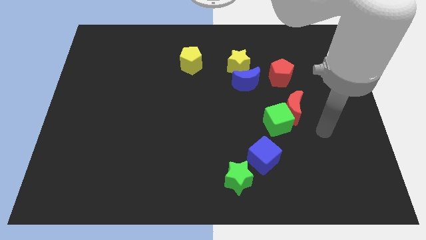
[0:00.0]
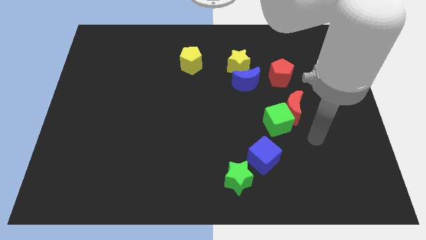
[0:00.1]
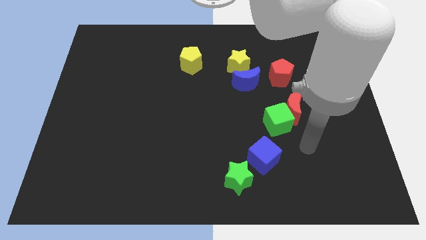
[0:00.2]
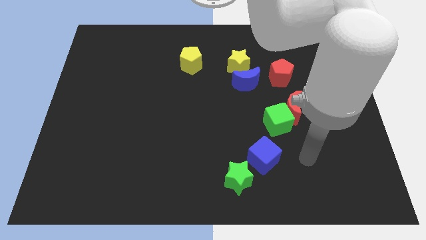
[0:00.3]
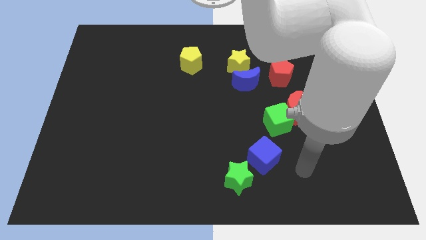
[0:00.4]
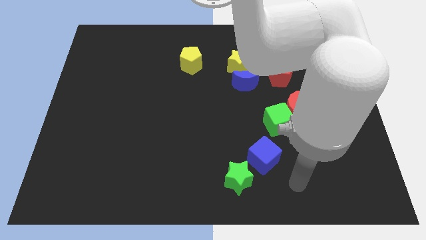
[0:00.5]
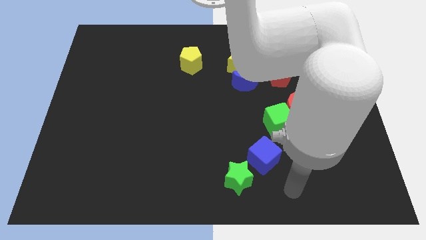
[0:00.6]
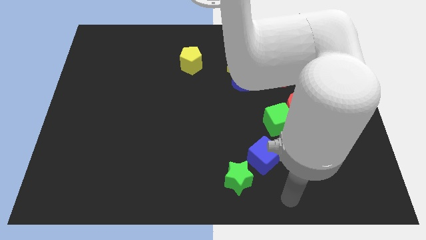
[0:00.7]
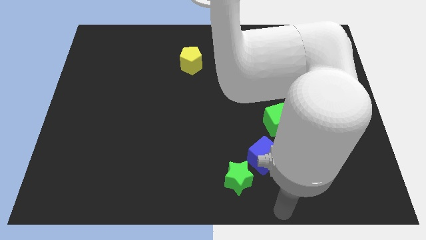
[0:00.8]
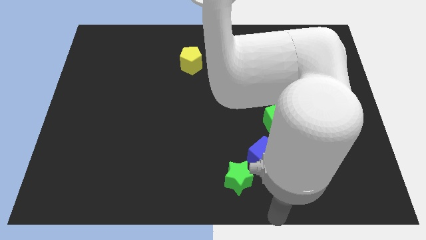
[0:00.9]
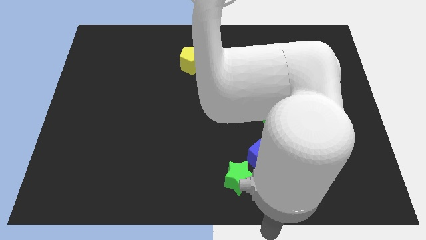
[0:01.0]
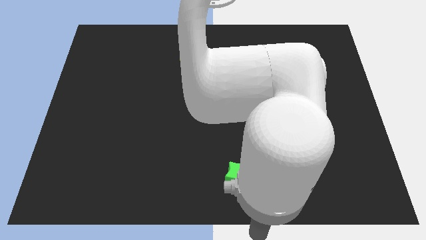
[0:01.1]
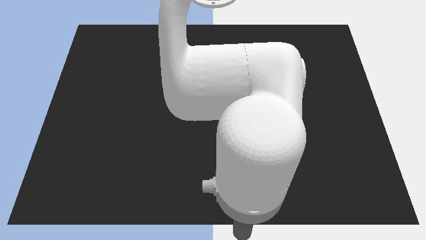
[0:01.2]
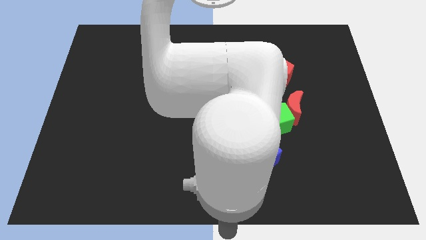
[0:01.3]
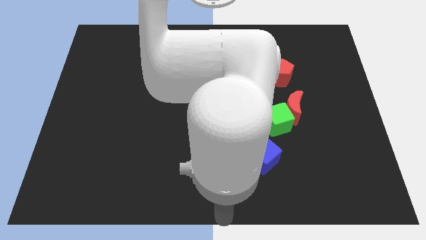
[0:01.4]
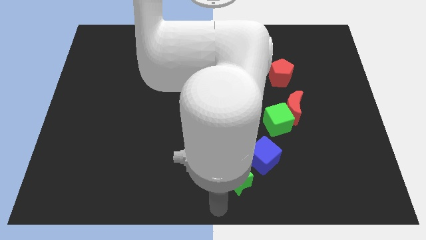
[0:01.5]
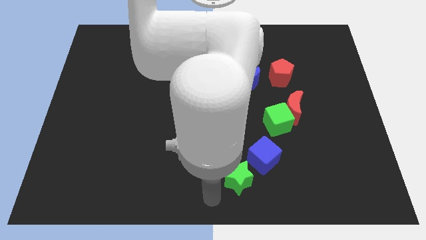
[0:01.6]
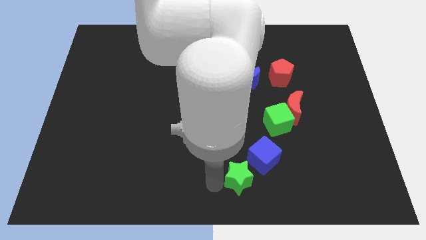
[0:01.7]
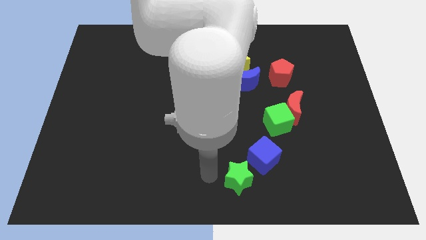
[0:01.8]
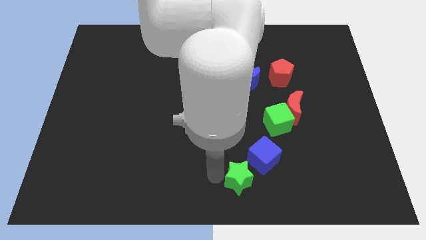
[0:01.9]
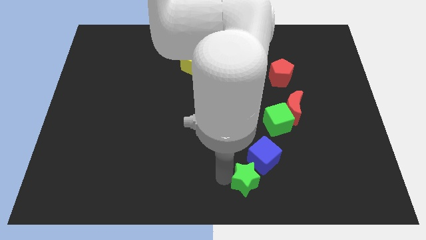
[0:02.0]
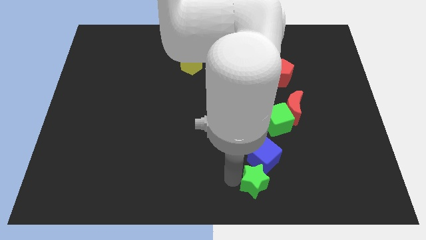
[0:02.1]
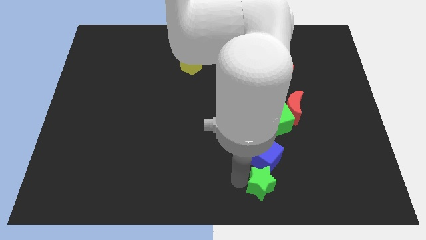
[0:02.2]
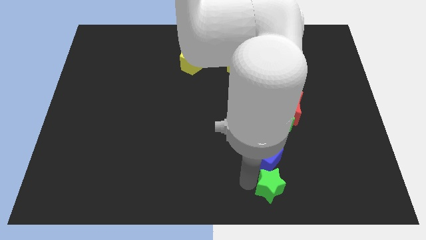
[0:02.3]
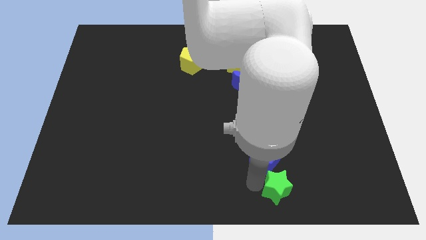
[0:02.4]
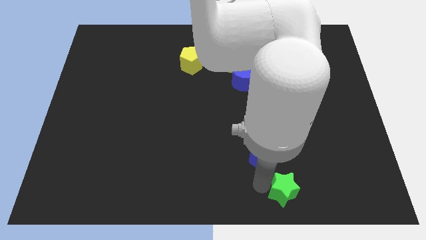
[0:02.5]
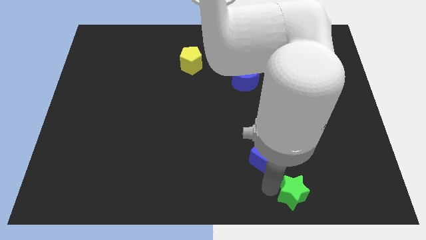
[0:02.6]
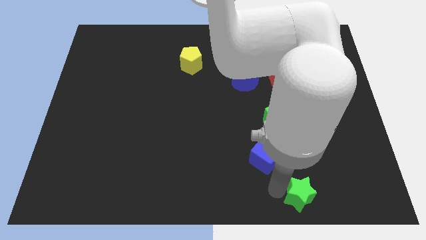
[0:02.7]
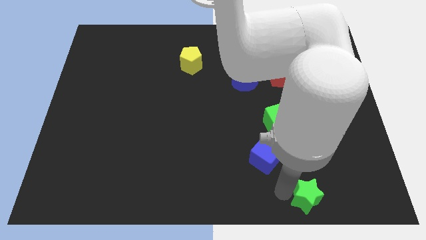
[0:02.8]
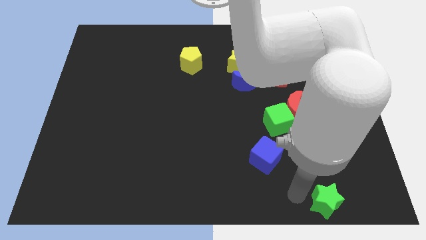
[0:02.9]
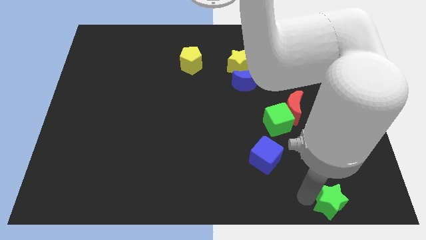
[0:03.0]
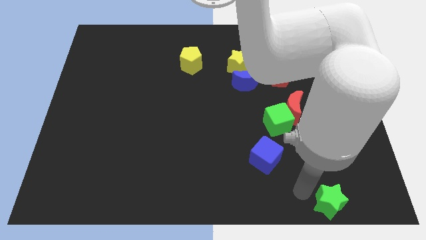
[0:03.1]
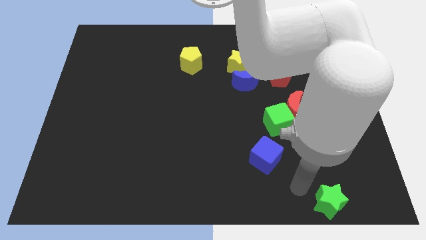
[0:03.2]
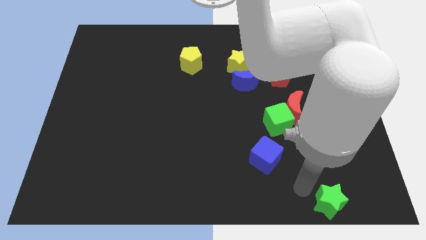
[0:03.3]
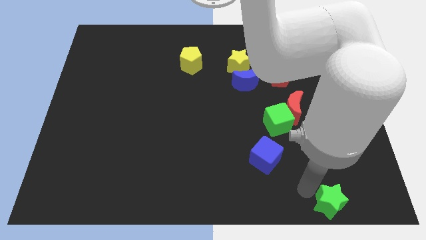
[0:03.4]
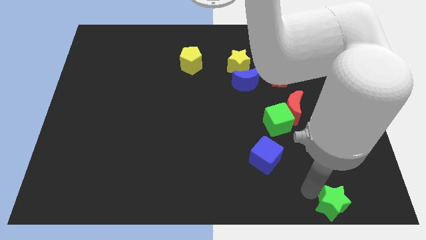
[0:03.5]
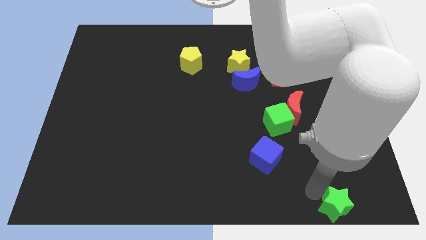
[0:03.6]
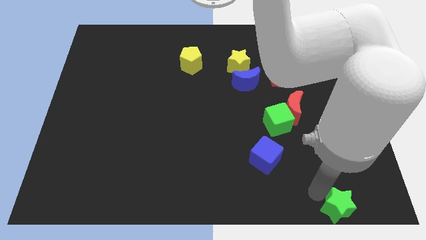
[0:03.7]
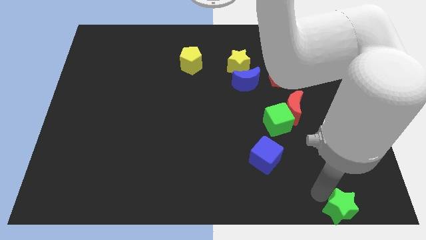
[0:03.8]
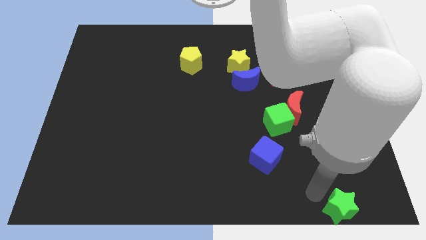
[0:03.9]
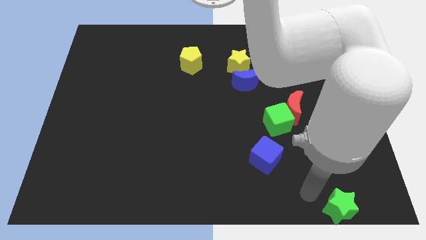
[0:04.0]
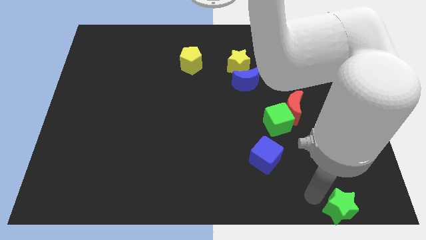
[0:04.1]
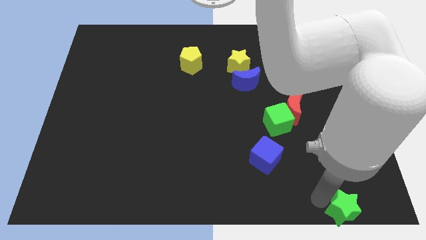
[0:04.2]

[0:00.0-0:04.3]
move the green star to the lower right corner

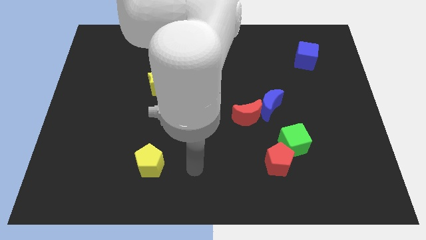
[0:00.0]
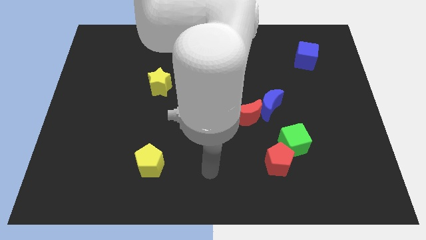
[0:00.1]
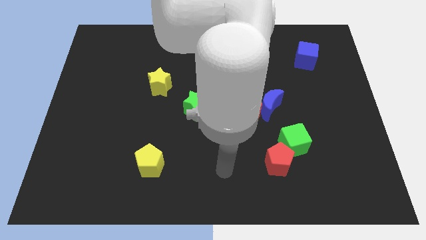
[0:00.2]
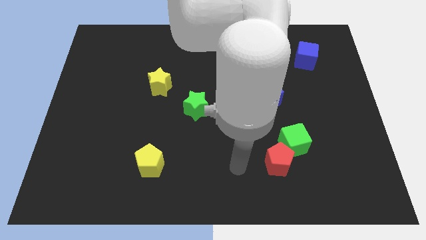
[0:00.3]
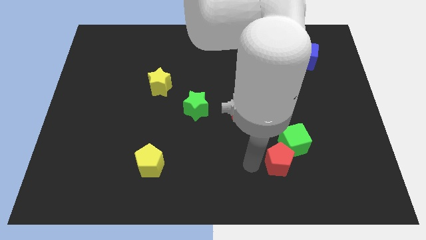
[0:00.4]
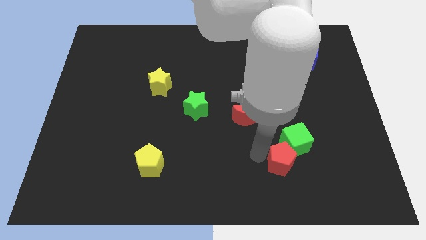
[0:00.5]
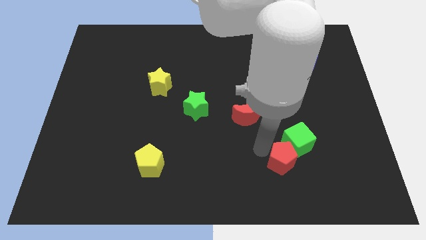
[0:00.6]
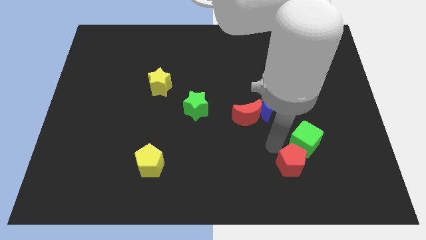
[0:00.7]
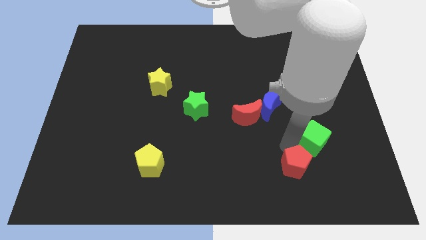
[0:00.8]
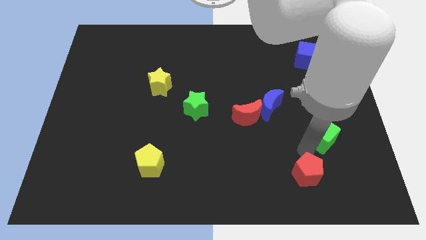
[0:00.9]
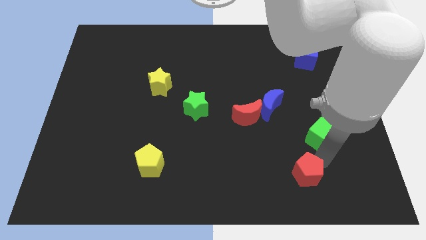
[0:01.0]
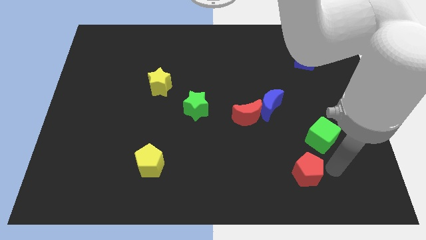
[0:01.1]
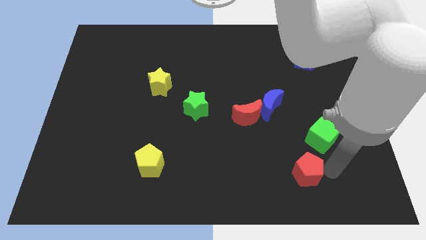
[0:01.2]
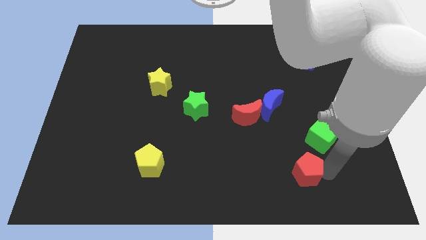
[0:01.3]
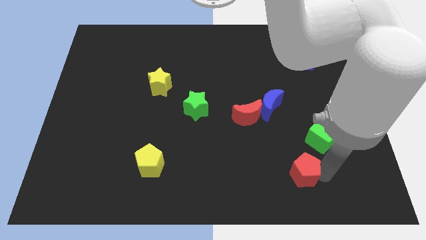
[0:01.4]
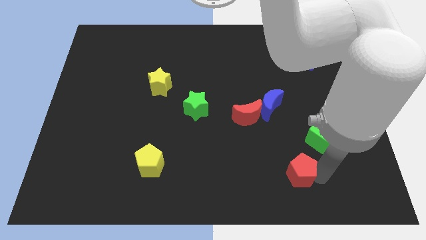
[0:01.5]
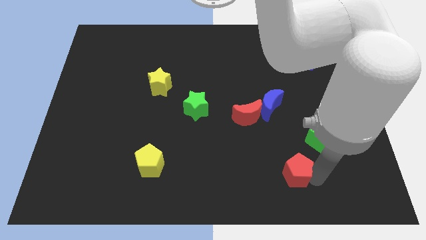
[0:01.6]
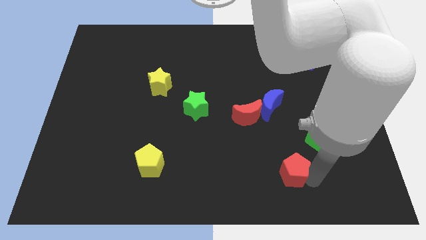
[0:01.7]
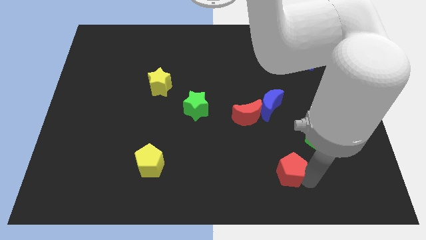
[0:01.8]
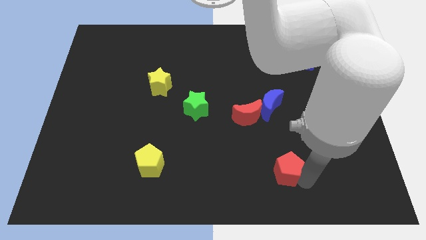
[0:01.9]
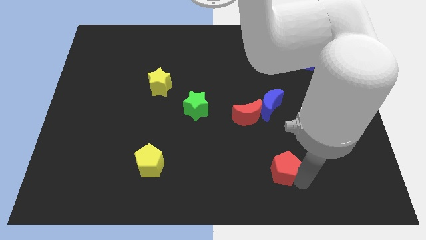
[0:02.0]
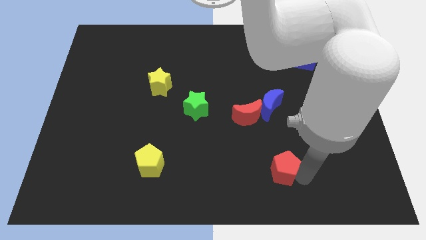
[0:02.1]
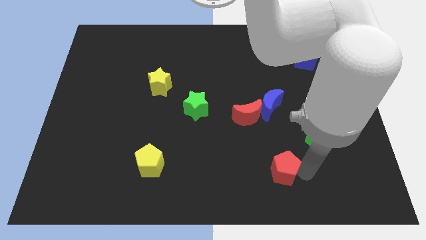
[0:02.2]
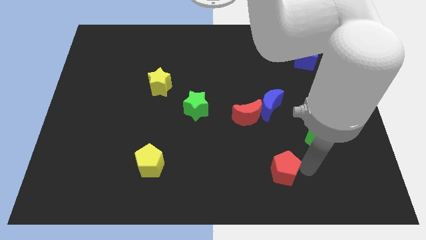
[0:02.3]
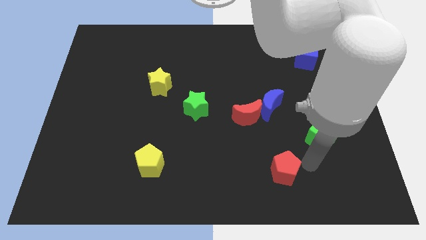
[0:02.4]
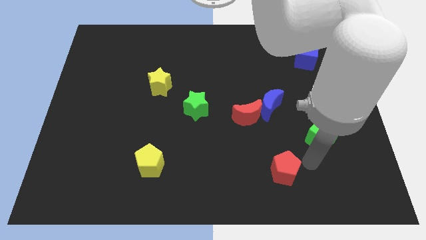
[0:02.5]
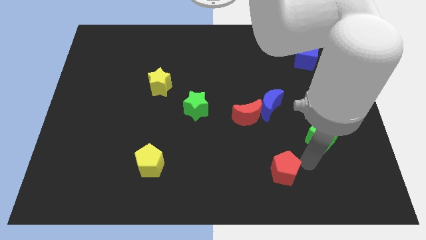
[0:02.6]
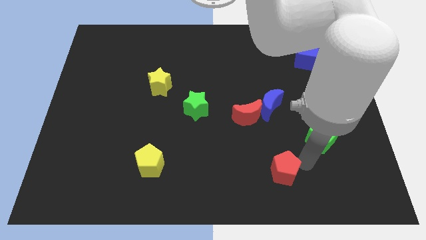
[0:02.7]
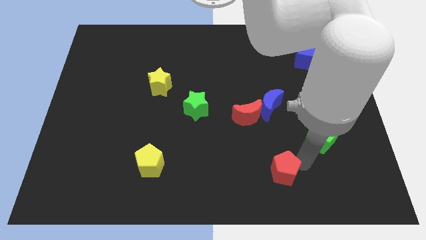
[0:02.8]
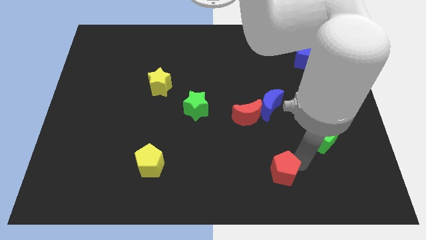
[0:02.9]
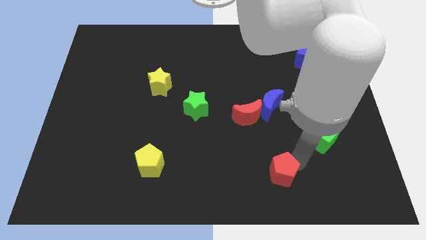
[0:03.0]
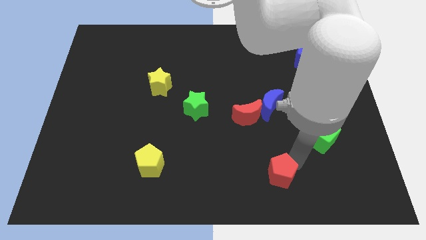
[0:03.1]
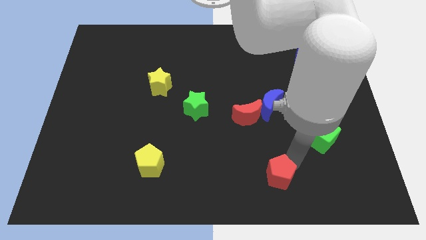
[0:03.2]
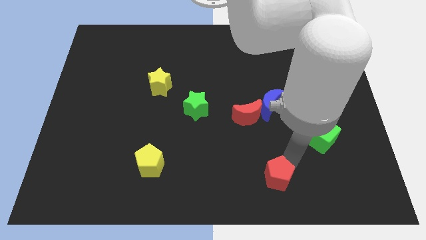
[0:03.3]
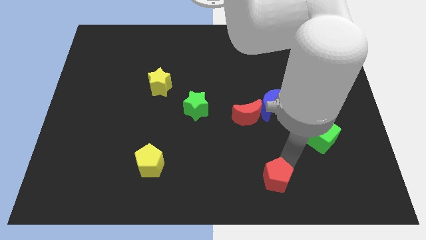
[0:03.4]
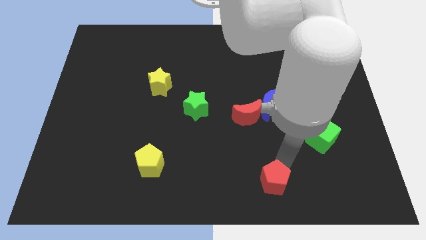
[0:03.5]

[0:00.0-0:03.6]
slide the red pentagon to the bottom side
